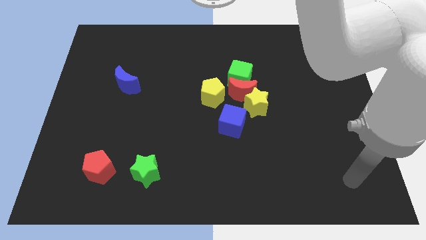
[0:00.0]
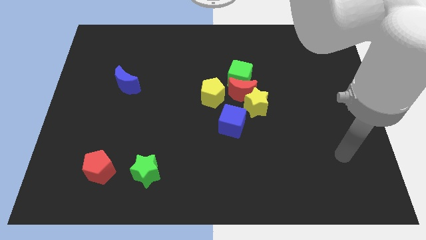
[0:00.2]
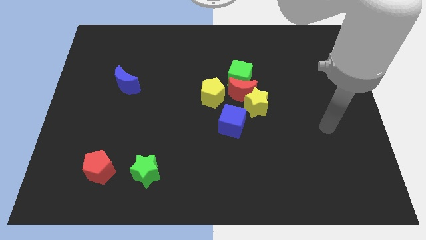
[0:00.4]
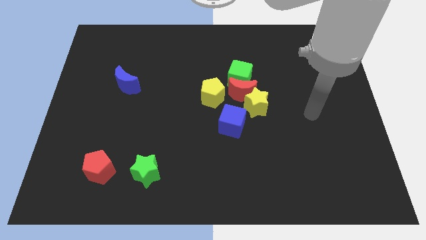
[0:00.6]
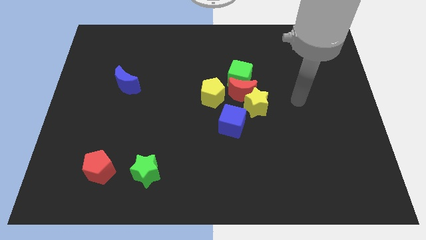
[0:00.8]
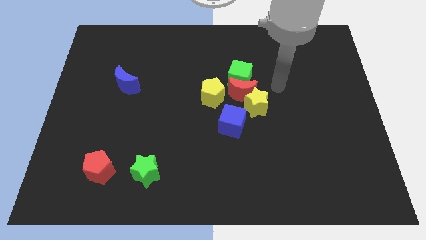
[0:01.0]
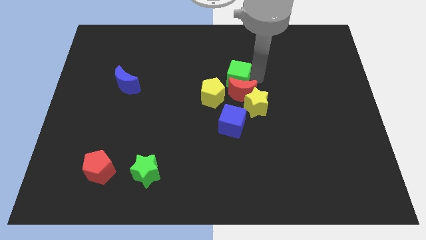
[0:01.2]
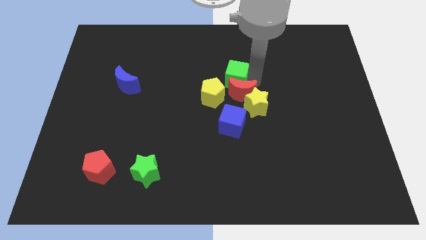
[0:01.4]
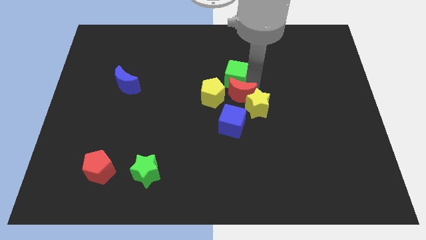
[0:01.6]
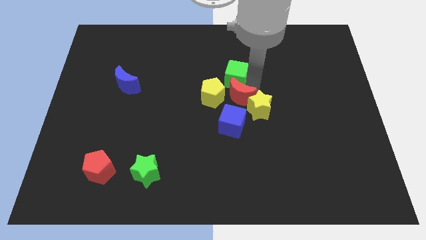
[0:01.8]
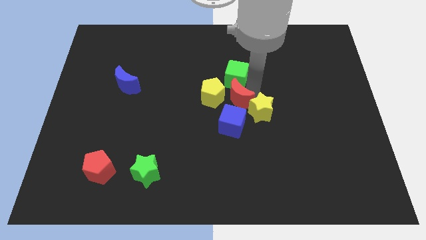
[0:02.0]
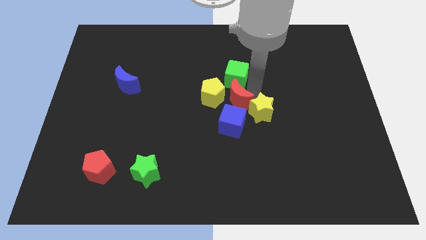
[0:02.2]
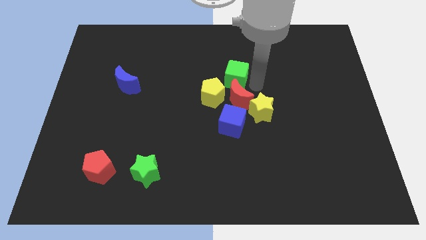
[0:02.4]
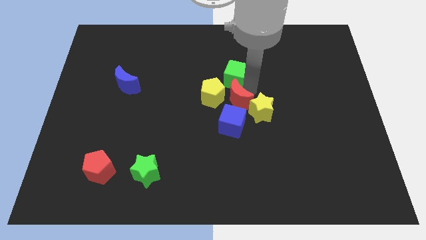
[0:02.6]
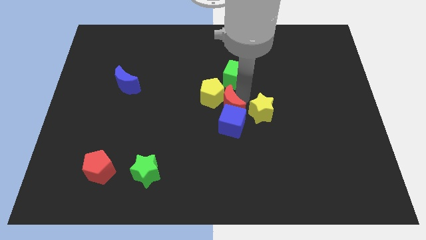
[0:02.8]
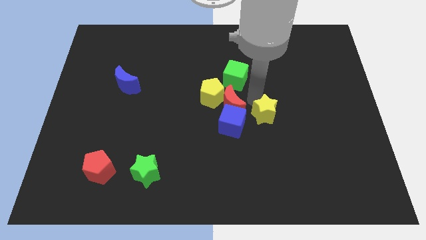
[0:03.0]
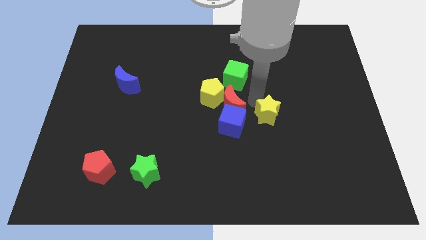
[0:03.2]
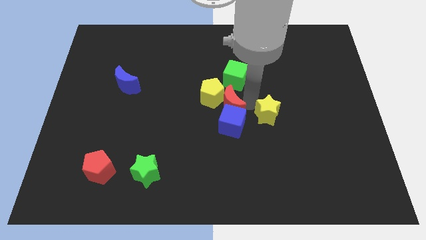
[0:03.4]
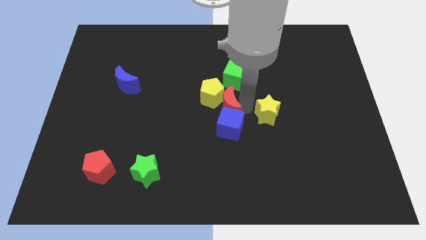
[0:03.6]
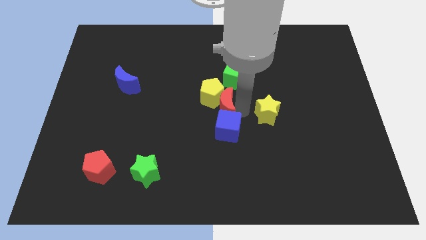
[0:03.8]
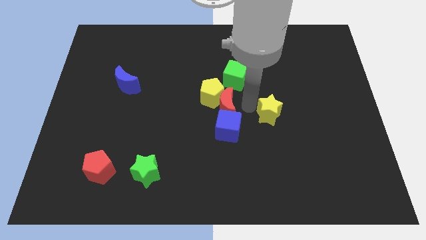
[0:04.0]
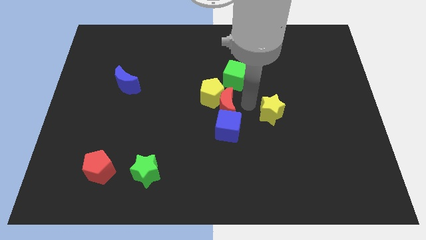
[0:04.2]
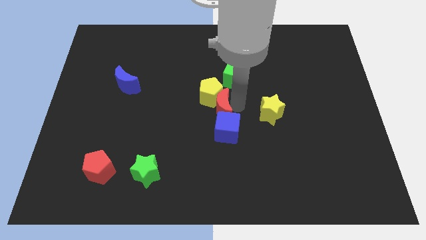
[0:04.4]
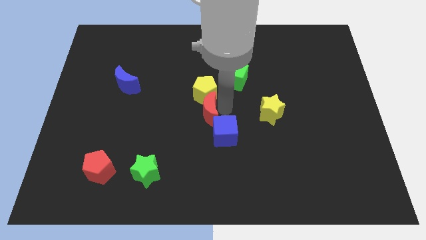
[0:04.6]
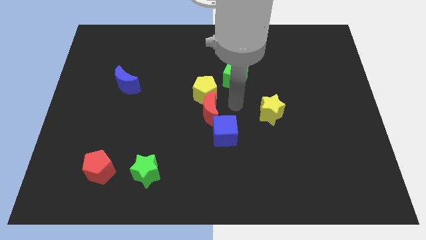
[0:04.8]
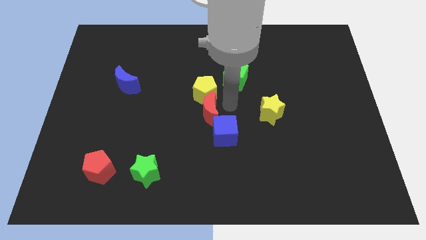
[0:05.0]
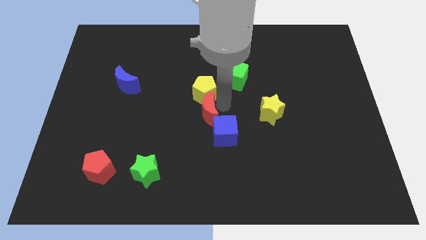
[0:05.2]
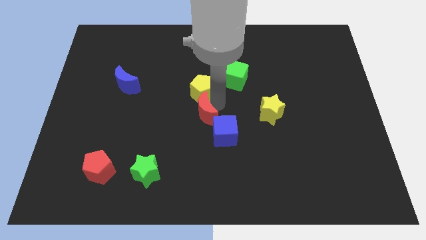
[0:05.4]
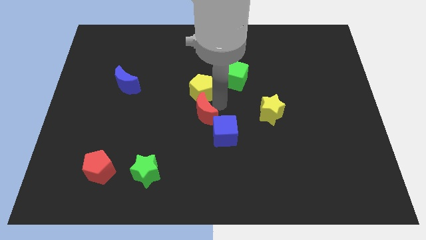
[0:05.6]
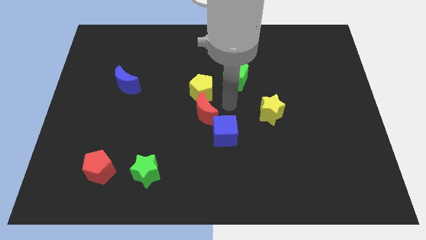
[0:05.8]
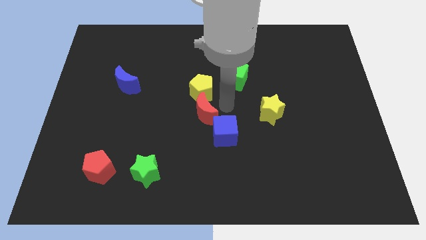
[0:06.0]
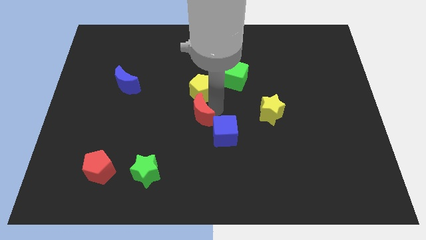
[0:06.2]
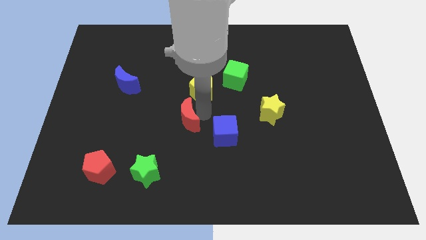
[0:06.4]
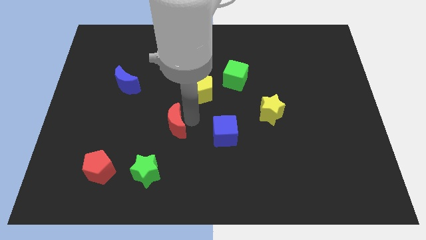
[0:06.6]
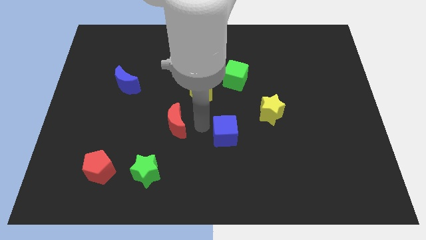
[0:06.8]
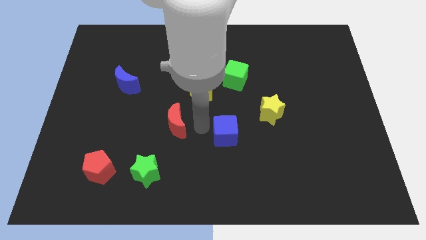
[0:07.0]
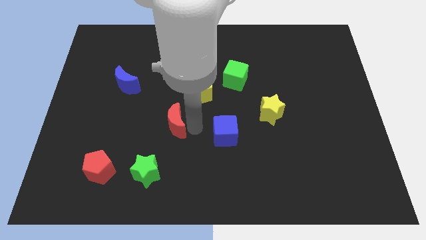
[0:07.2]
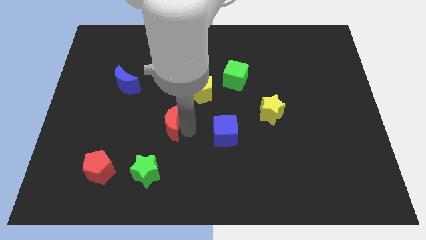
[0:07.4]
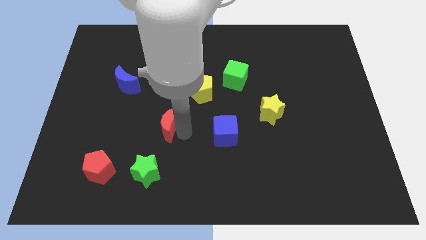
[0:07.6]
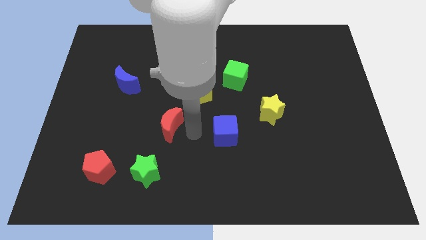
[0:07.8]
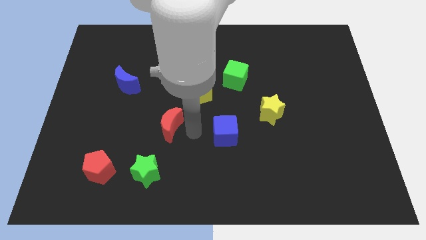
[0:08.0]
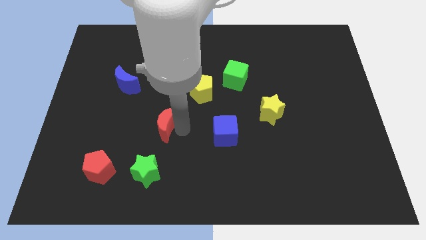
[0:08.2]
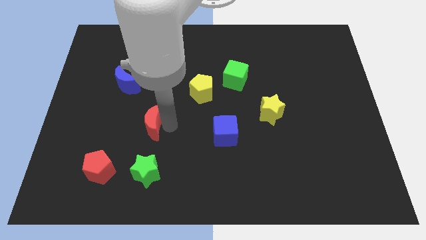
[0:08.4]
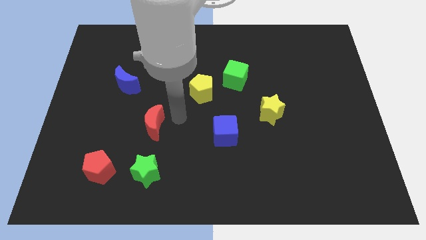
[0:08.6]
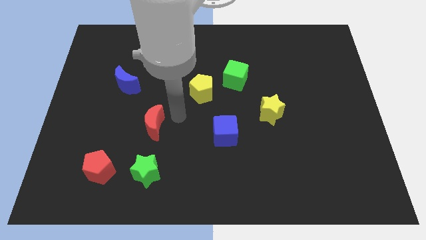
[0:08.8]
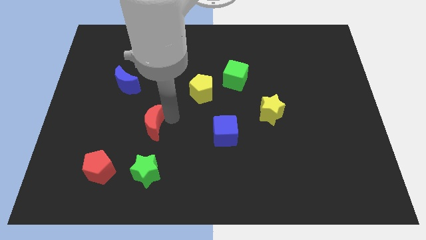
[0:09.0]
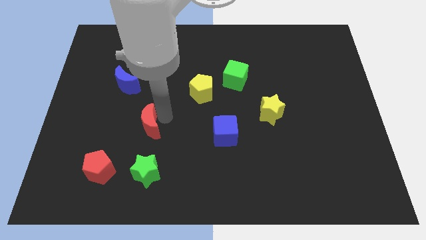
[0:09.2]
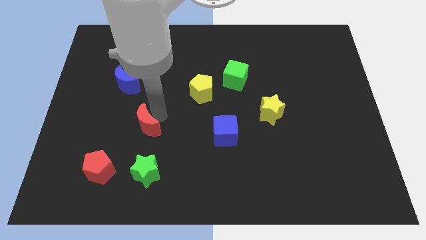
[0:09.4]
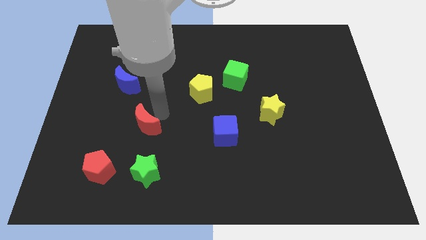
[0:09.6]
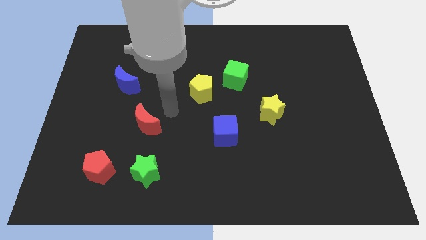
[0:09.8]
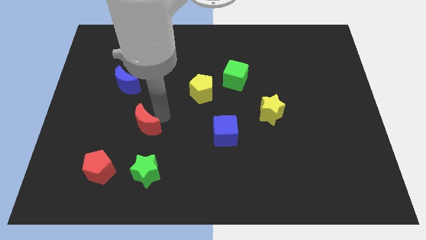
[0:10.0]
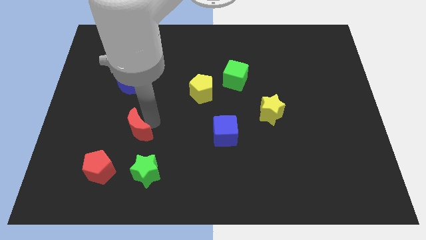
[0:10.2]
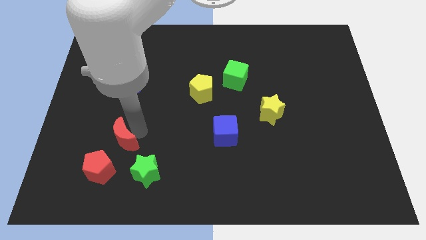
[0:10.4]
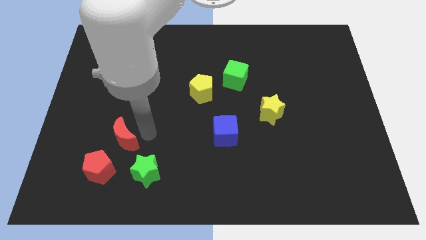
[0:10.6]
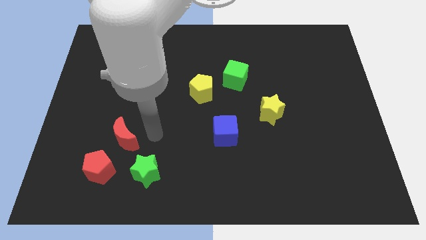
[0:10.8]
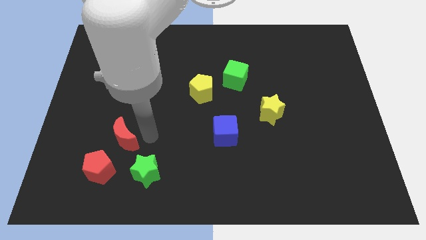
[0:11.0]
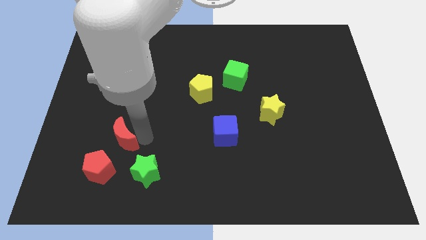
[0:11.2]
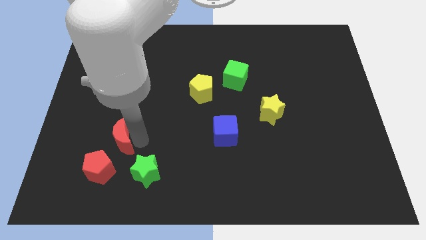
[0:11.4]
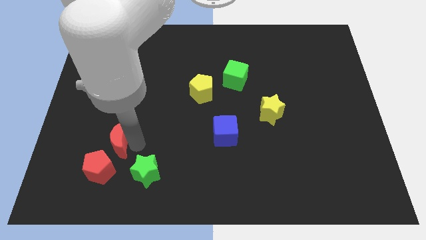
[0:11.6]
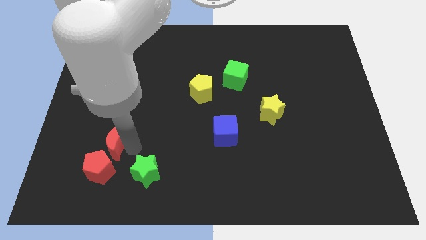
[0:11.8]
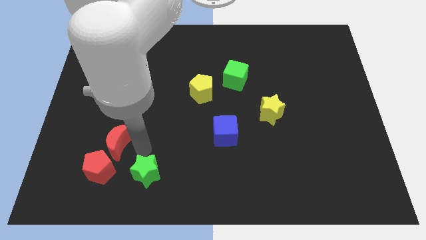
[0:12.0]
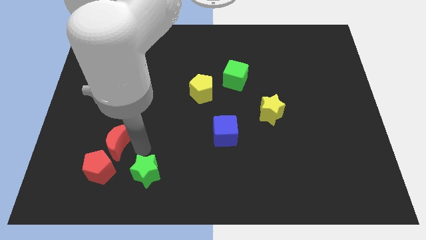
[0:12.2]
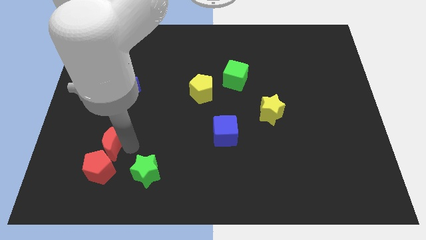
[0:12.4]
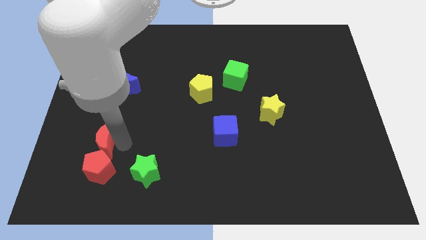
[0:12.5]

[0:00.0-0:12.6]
move the red moon diagonally up and to the left of the red pentagon

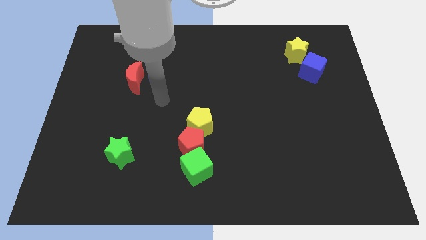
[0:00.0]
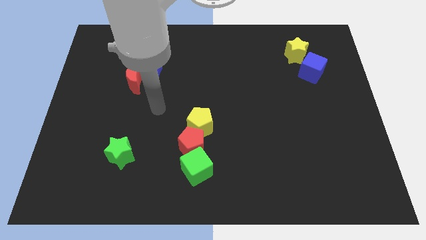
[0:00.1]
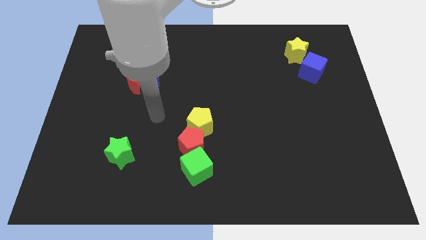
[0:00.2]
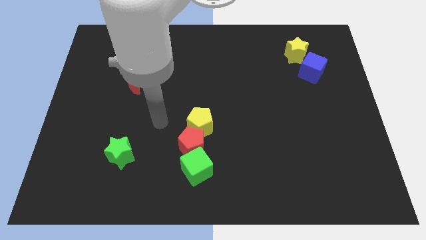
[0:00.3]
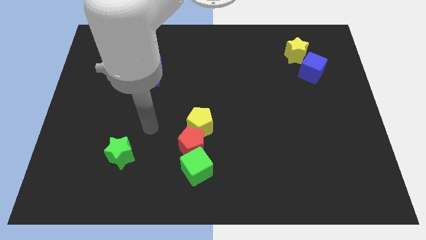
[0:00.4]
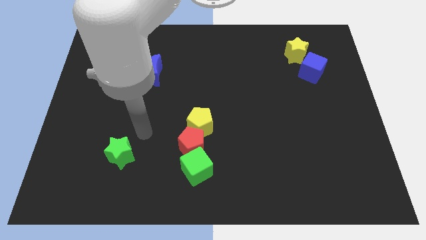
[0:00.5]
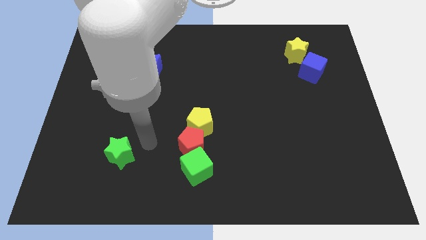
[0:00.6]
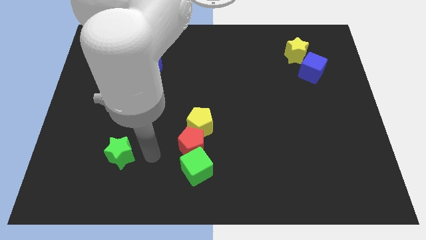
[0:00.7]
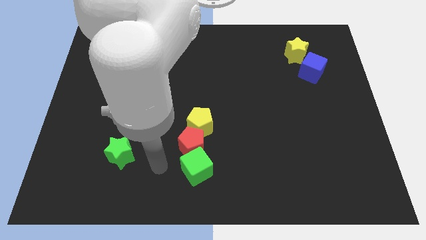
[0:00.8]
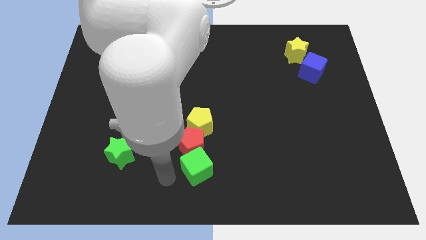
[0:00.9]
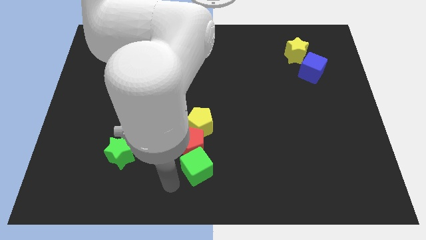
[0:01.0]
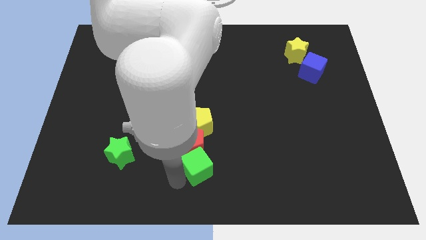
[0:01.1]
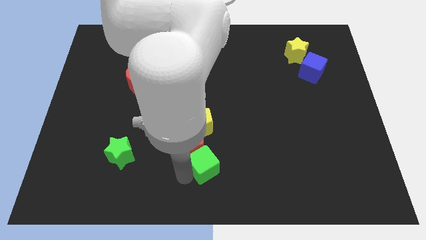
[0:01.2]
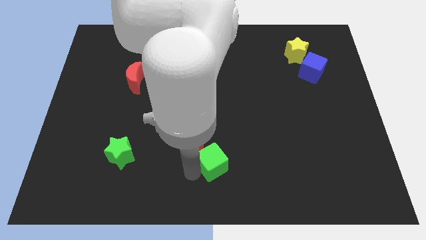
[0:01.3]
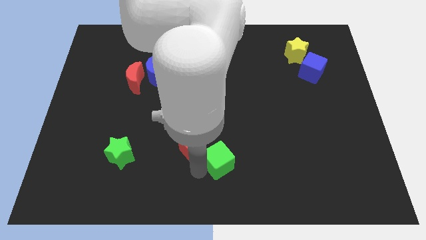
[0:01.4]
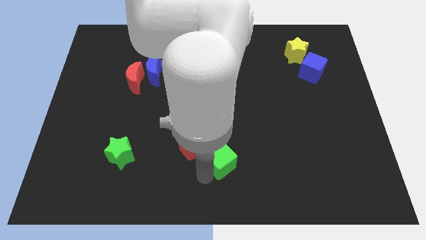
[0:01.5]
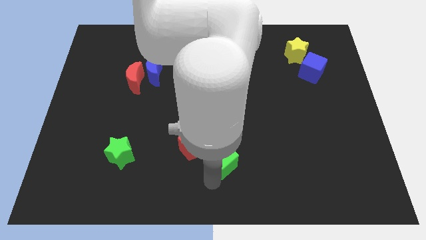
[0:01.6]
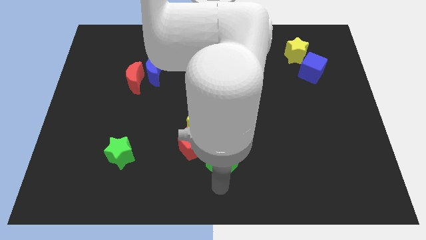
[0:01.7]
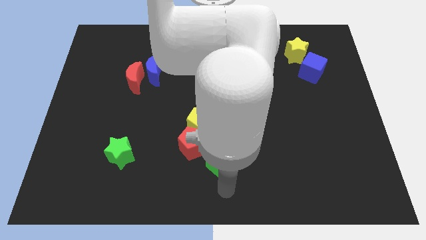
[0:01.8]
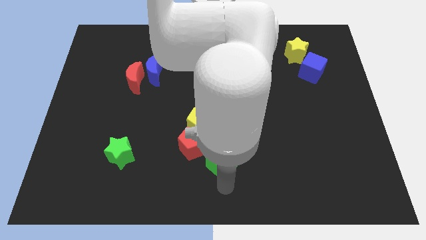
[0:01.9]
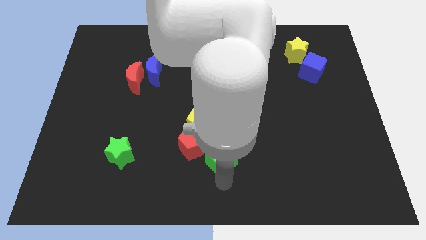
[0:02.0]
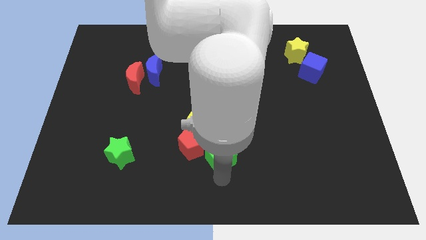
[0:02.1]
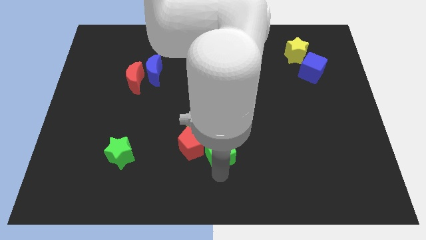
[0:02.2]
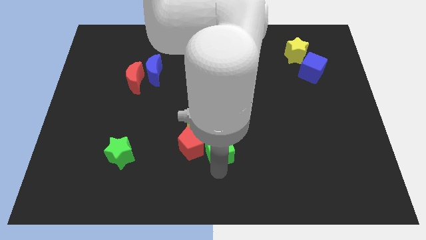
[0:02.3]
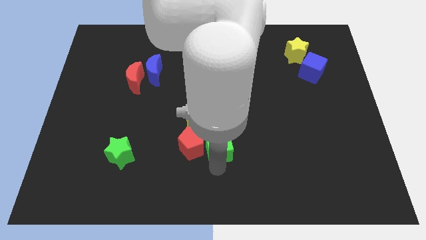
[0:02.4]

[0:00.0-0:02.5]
put the green cube diagonally up and to the right of the red pentagon
